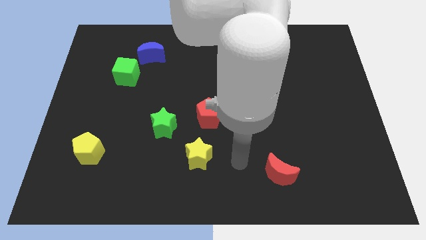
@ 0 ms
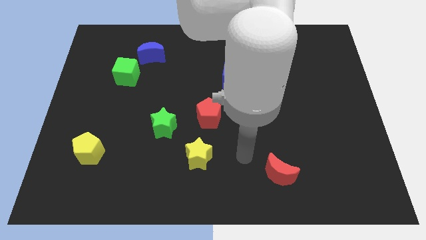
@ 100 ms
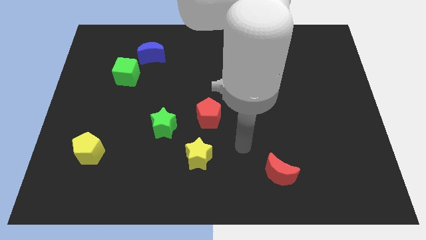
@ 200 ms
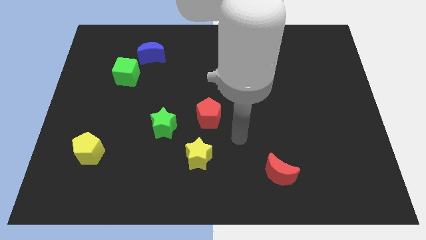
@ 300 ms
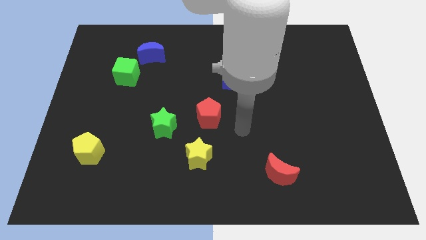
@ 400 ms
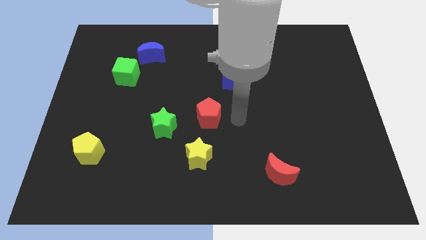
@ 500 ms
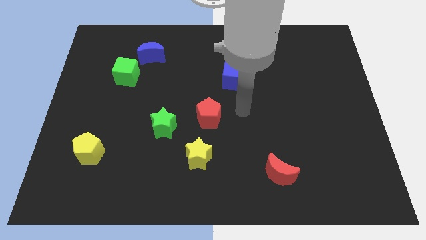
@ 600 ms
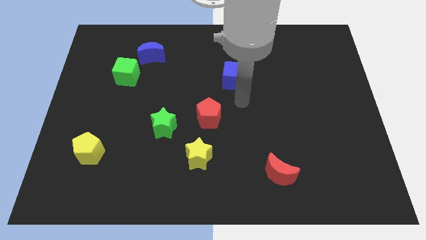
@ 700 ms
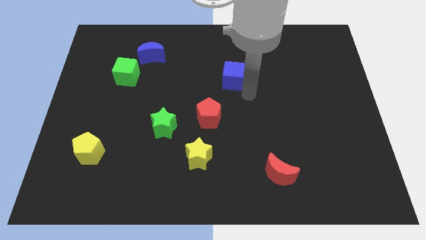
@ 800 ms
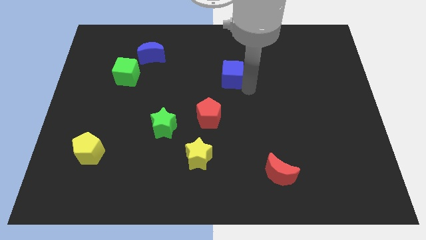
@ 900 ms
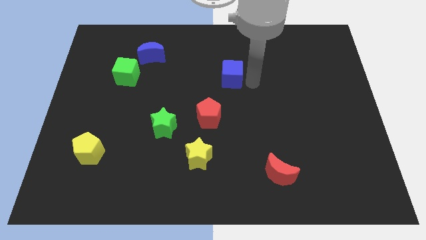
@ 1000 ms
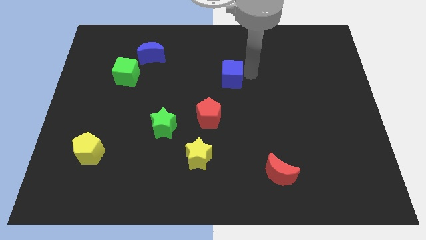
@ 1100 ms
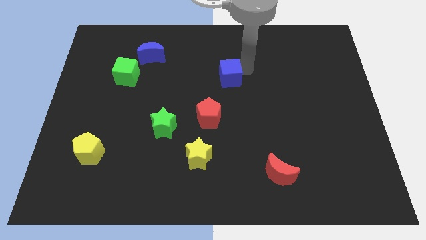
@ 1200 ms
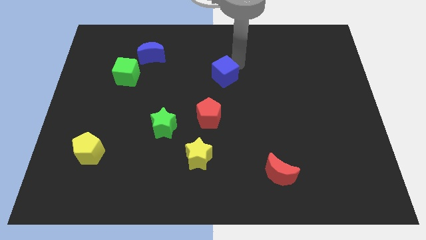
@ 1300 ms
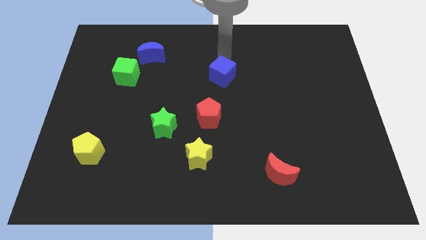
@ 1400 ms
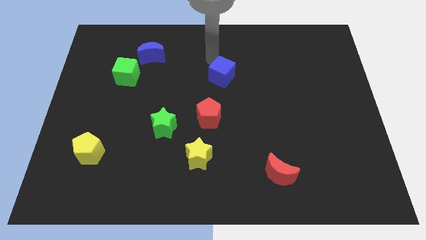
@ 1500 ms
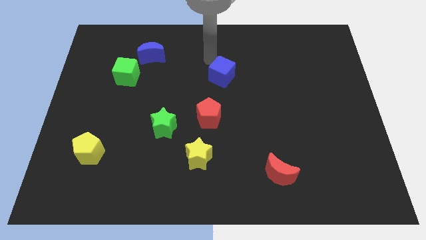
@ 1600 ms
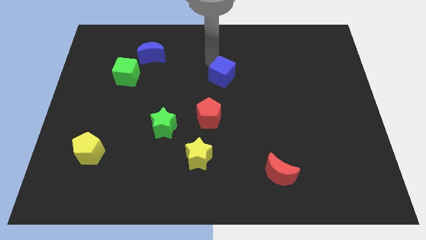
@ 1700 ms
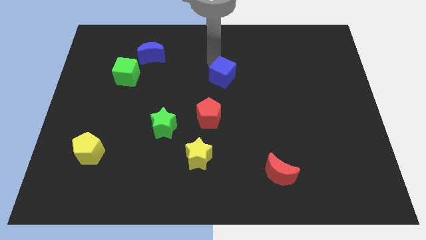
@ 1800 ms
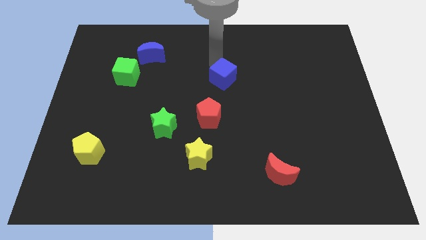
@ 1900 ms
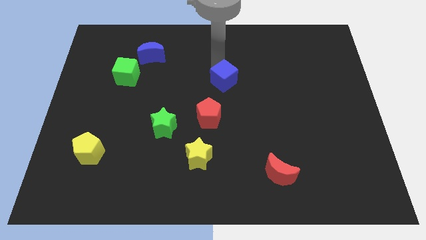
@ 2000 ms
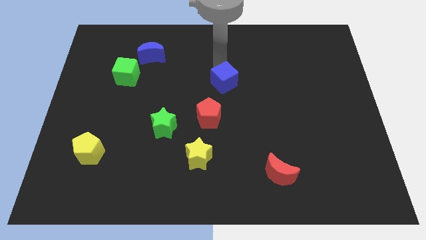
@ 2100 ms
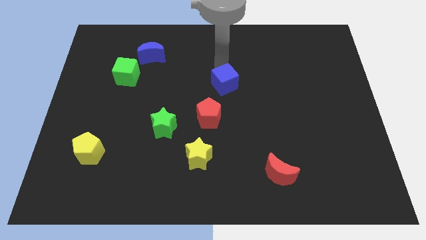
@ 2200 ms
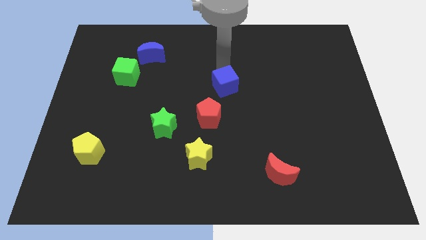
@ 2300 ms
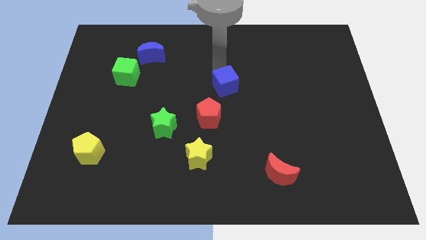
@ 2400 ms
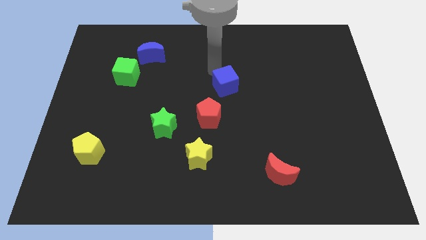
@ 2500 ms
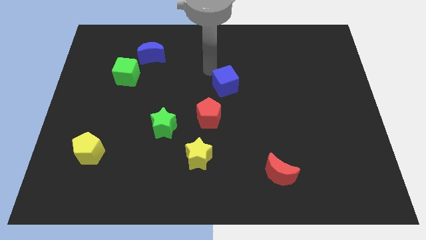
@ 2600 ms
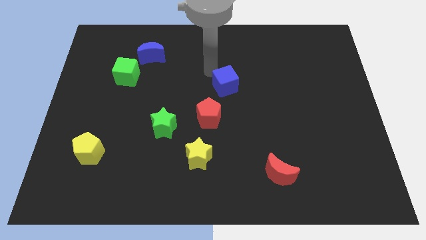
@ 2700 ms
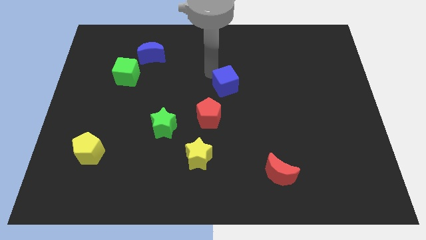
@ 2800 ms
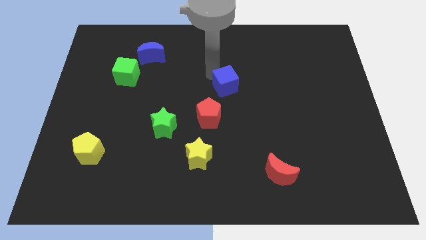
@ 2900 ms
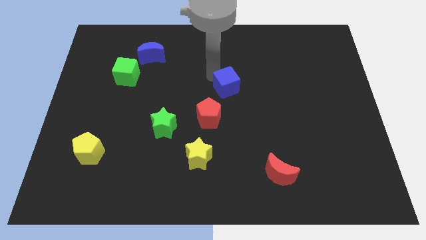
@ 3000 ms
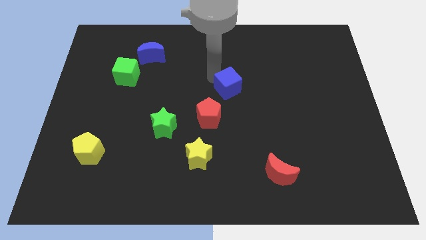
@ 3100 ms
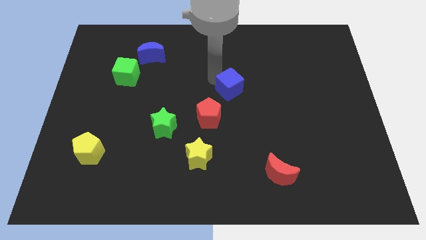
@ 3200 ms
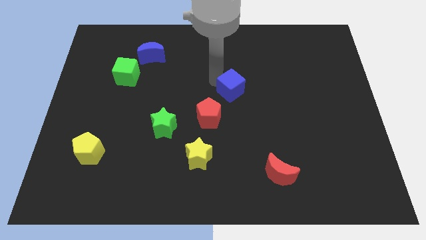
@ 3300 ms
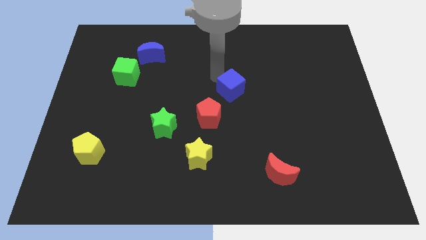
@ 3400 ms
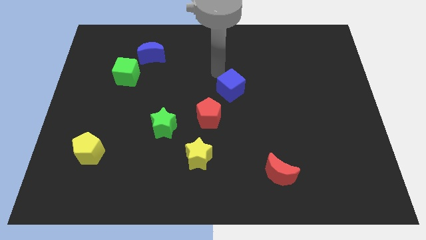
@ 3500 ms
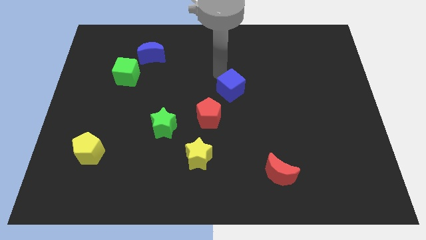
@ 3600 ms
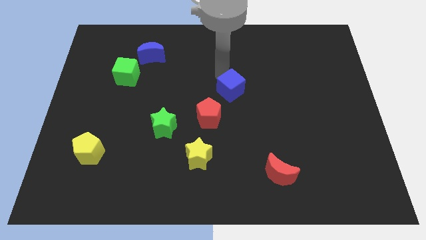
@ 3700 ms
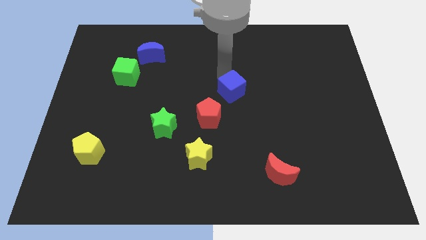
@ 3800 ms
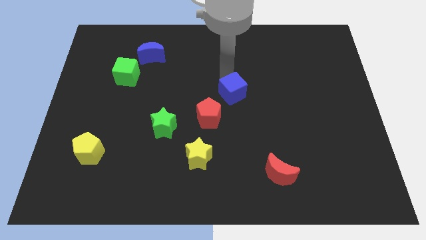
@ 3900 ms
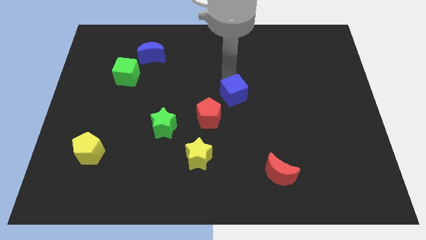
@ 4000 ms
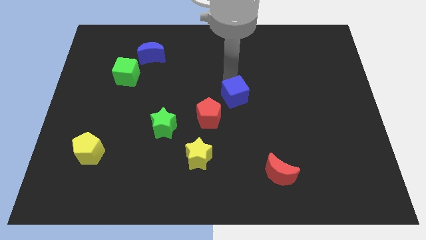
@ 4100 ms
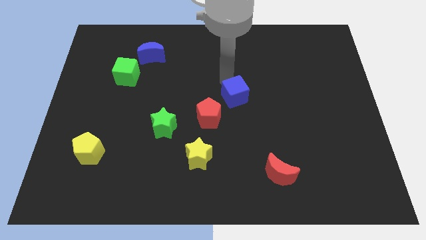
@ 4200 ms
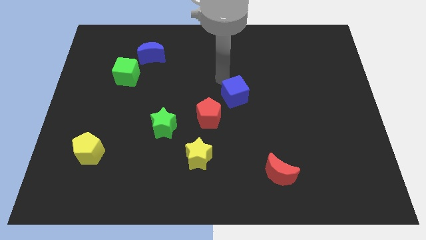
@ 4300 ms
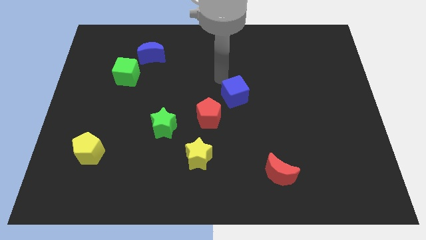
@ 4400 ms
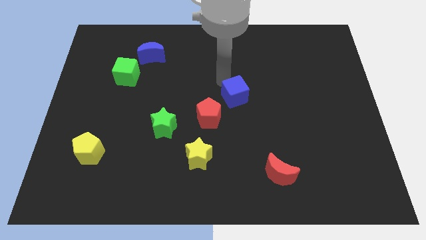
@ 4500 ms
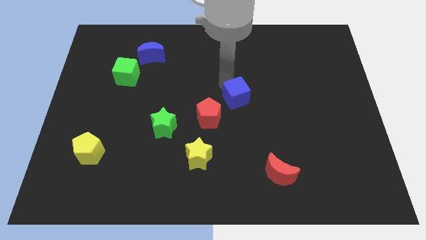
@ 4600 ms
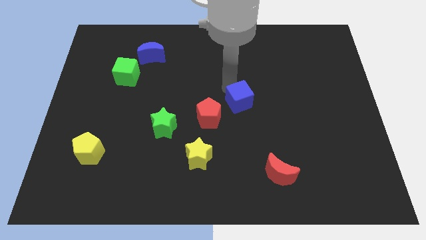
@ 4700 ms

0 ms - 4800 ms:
slightly move the blue cube downwards

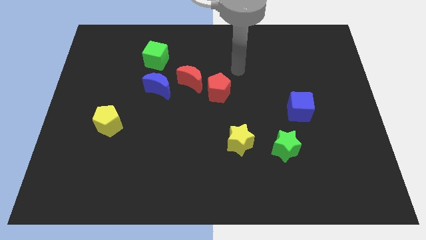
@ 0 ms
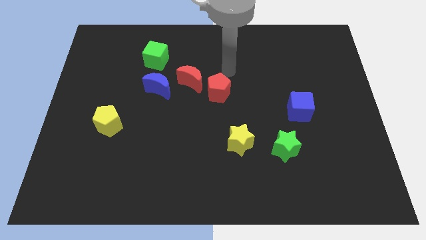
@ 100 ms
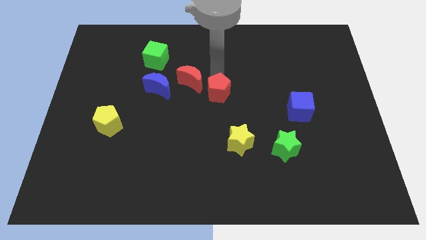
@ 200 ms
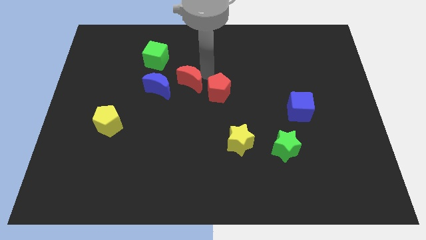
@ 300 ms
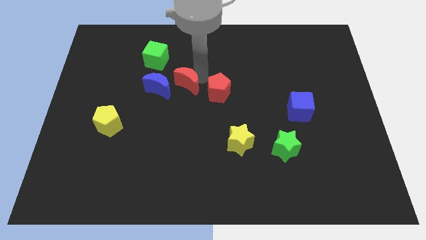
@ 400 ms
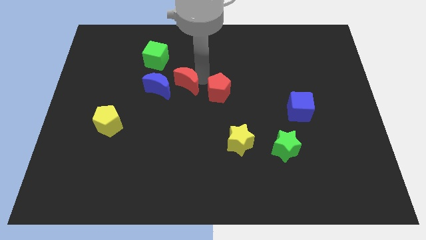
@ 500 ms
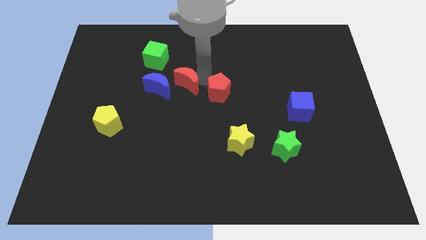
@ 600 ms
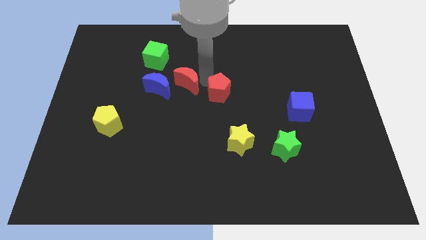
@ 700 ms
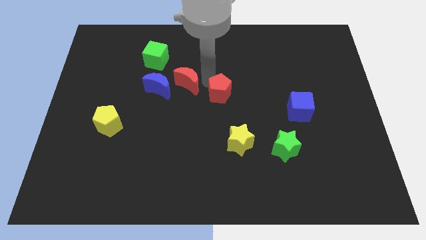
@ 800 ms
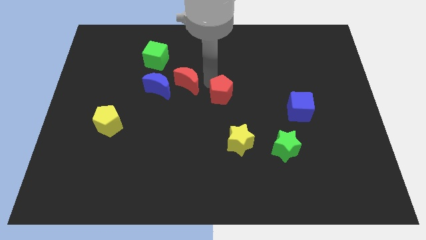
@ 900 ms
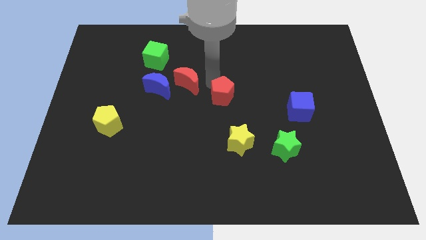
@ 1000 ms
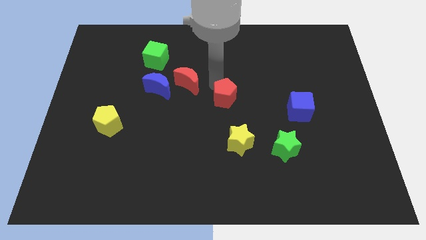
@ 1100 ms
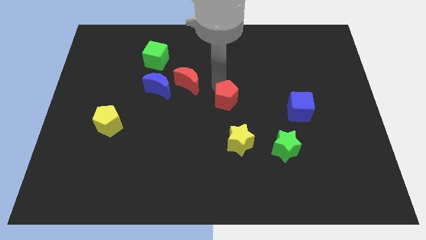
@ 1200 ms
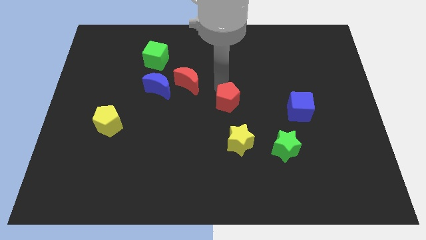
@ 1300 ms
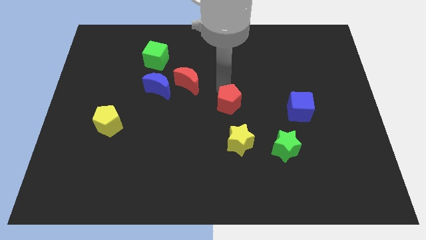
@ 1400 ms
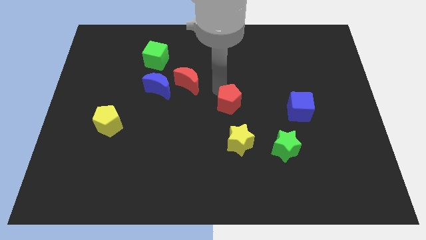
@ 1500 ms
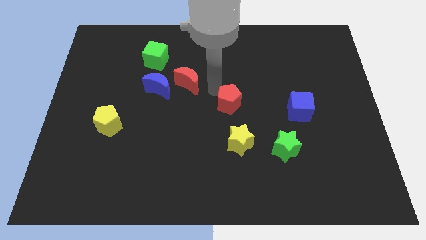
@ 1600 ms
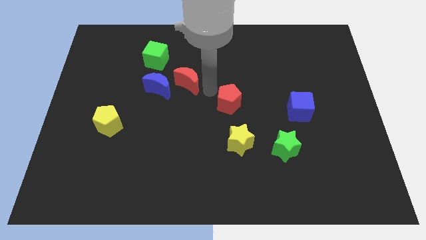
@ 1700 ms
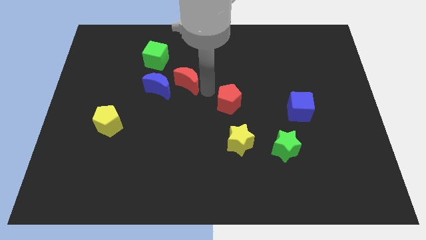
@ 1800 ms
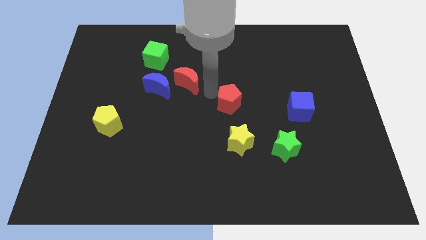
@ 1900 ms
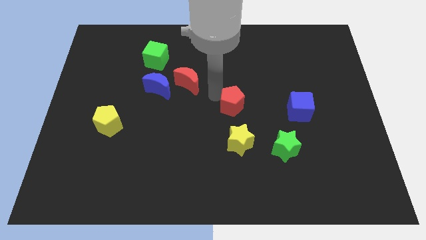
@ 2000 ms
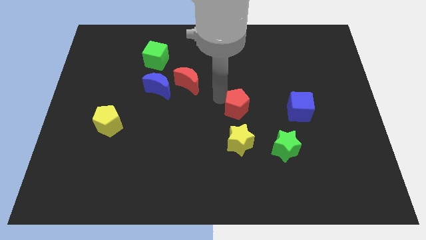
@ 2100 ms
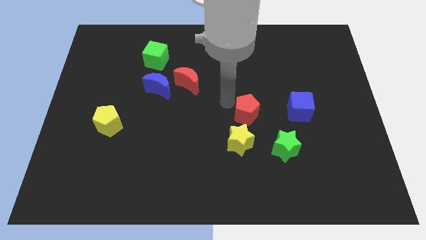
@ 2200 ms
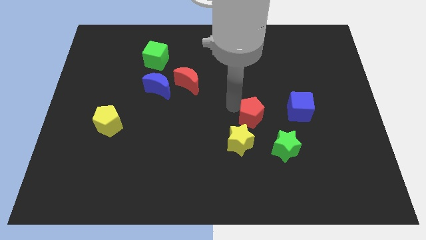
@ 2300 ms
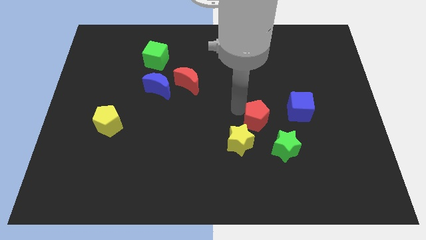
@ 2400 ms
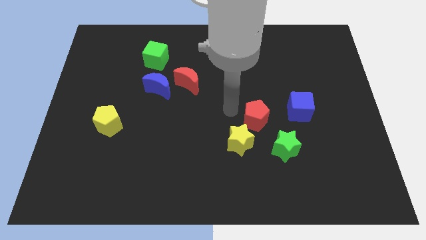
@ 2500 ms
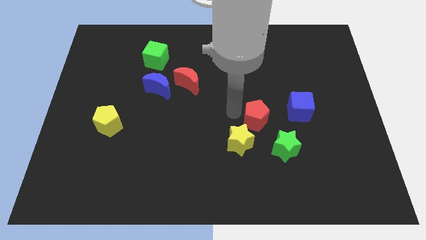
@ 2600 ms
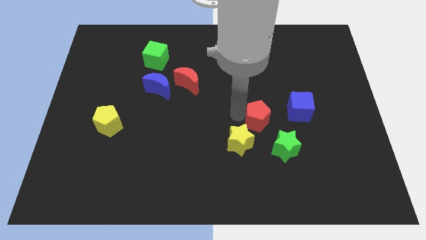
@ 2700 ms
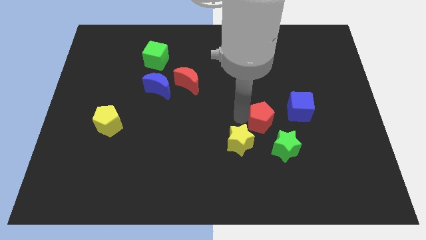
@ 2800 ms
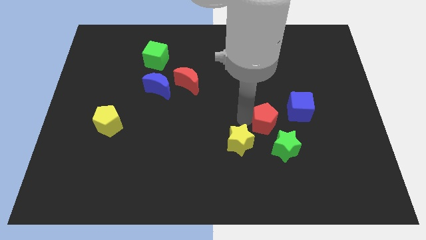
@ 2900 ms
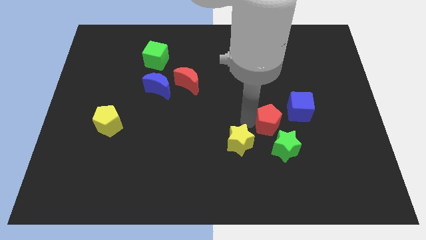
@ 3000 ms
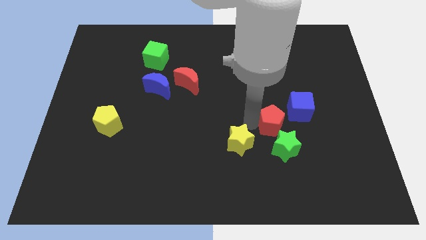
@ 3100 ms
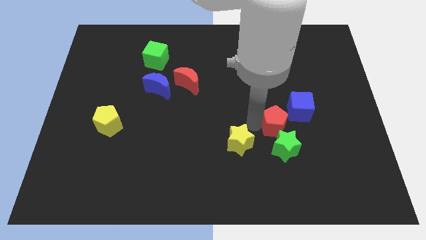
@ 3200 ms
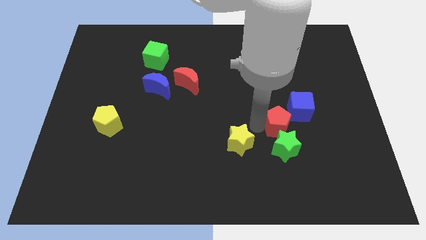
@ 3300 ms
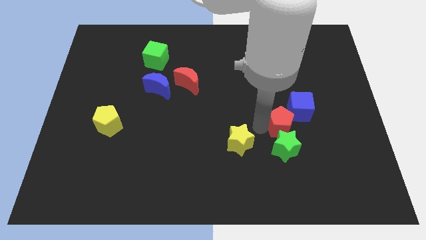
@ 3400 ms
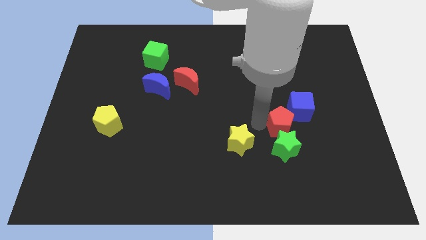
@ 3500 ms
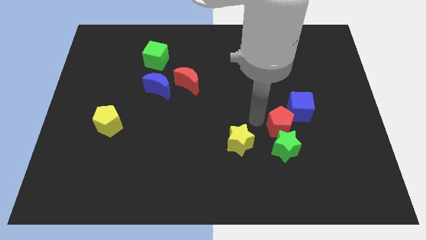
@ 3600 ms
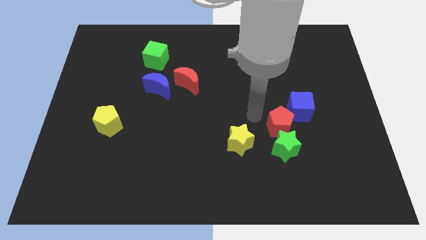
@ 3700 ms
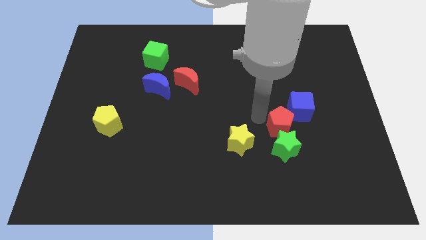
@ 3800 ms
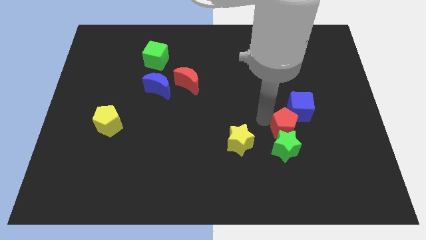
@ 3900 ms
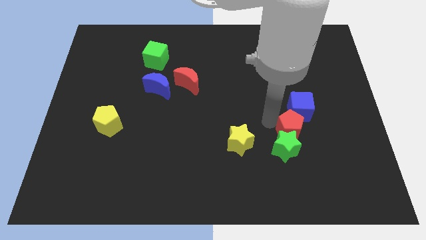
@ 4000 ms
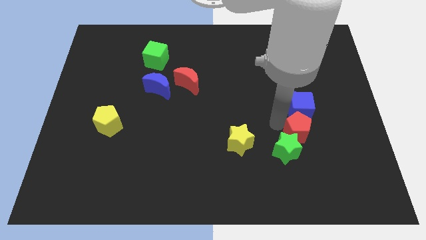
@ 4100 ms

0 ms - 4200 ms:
slide the red pentagon diagonally down and to the right
